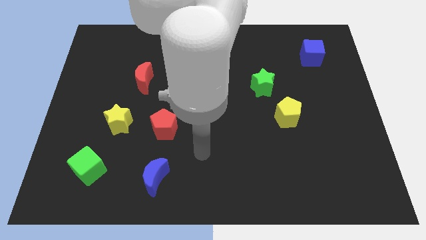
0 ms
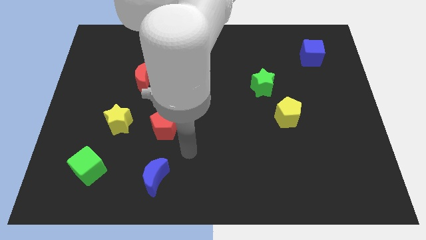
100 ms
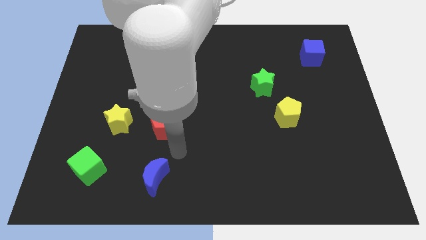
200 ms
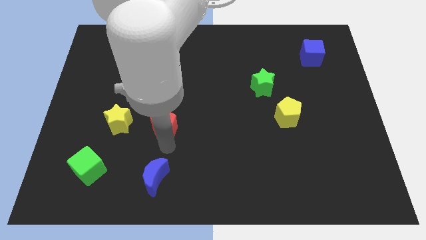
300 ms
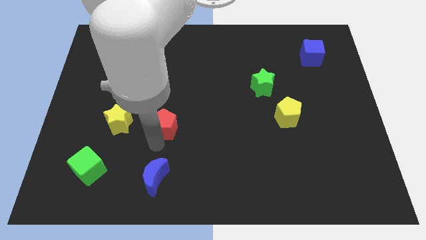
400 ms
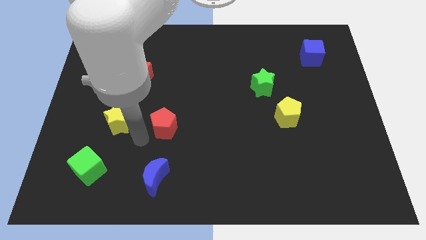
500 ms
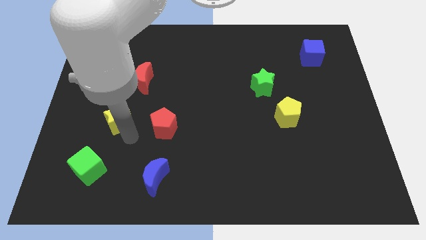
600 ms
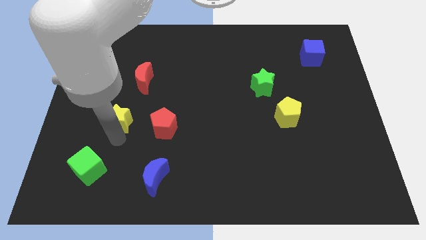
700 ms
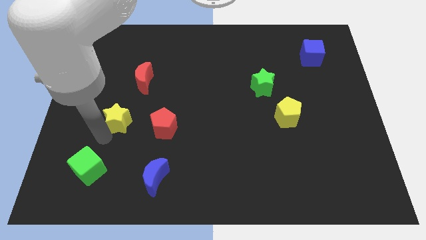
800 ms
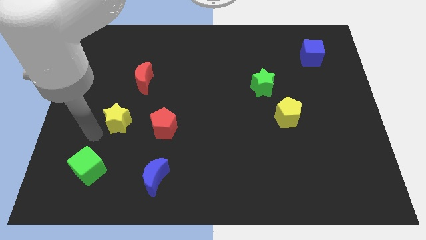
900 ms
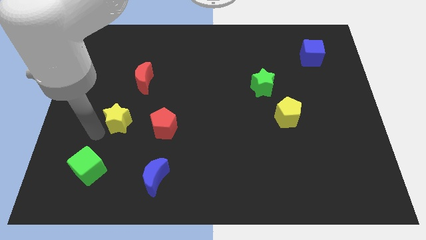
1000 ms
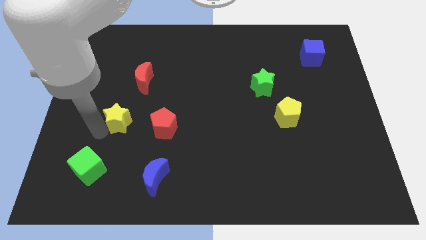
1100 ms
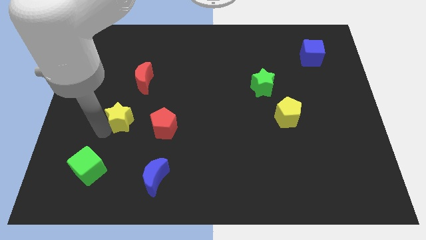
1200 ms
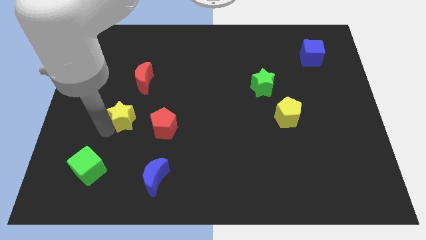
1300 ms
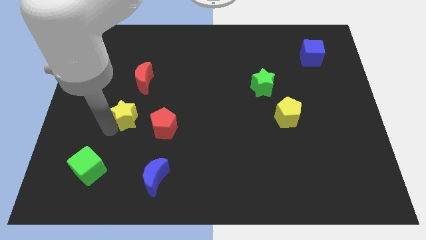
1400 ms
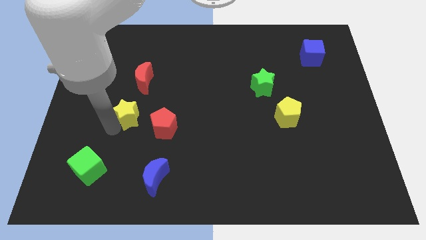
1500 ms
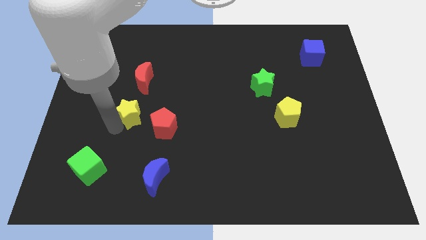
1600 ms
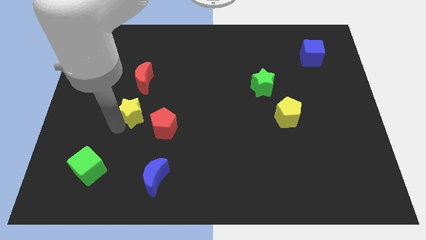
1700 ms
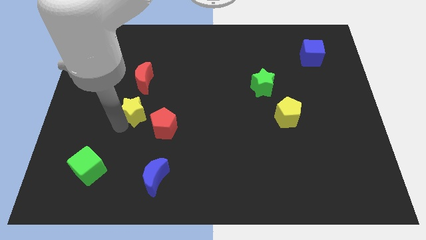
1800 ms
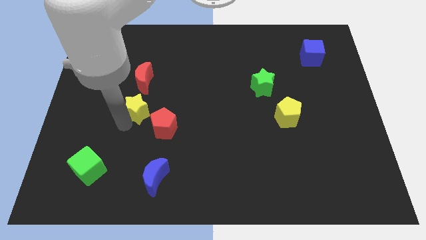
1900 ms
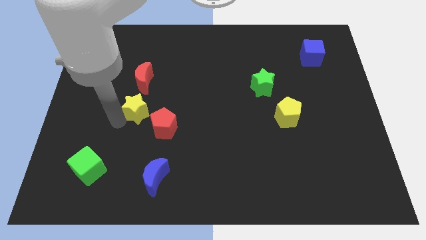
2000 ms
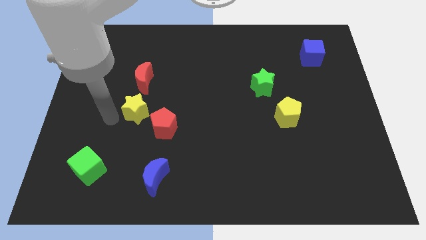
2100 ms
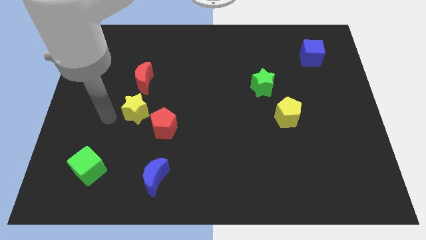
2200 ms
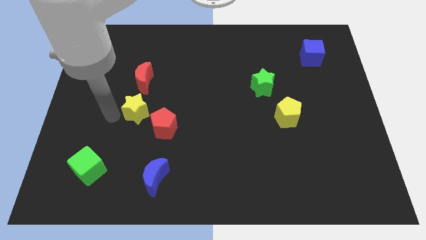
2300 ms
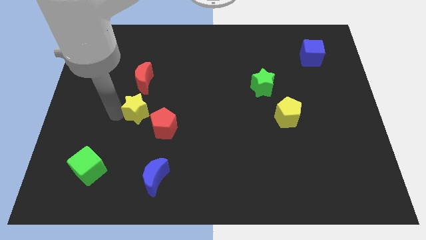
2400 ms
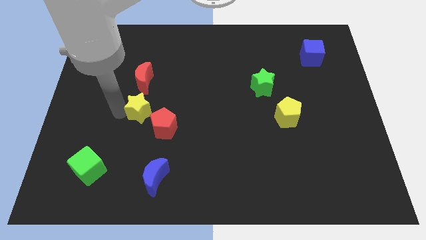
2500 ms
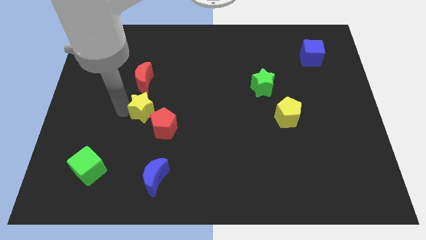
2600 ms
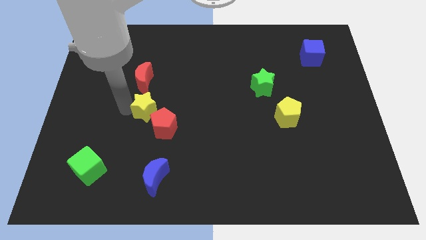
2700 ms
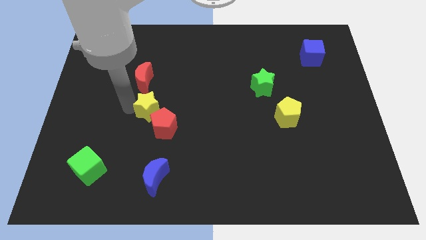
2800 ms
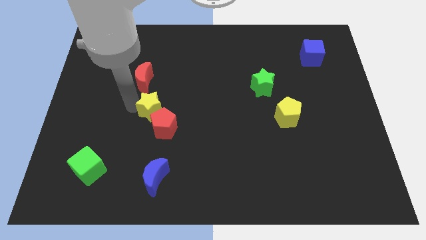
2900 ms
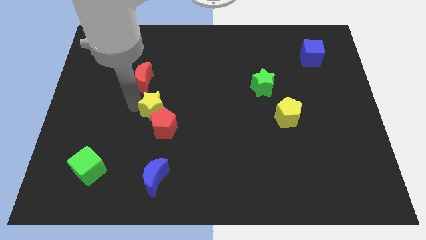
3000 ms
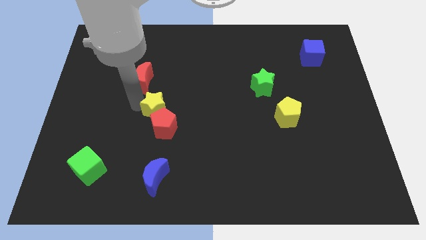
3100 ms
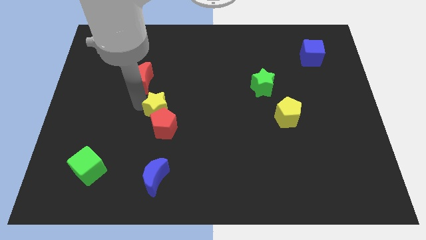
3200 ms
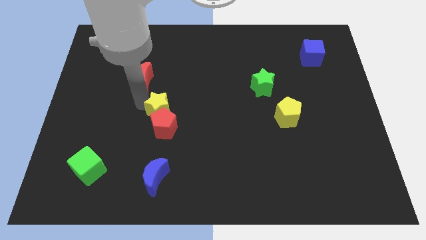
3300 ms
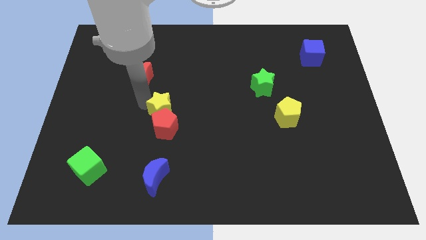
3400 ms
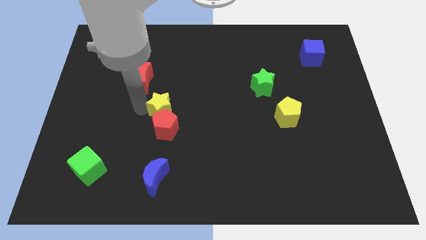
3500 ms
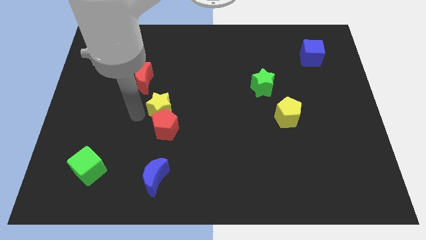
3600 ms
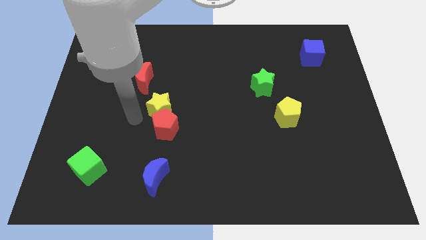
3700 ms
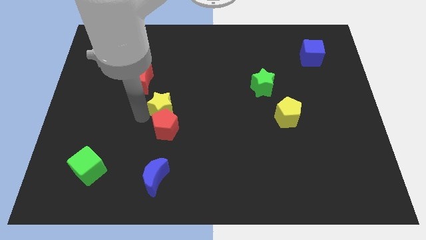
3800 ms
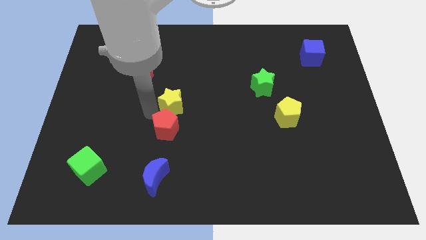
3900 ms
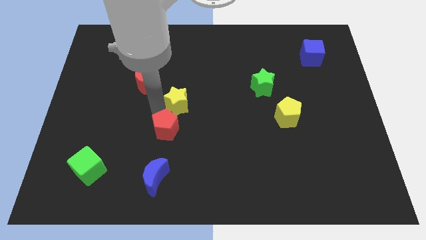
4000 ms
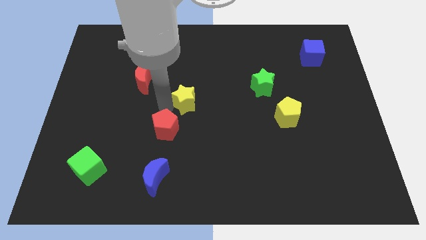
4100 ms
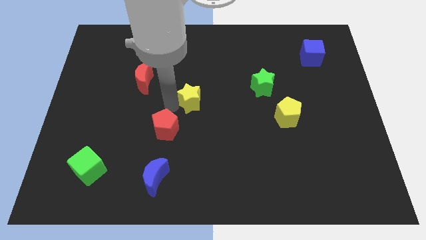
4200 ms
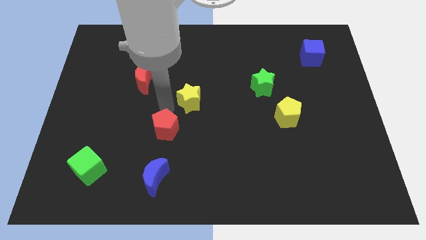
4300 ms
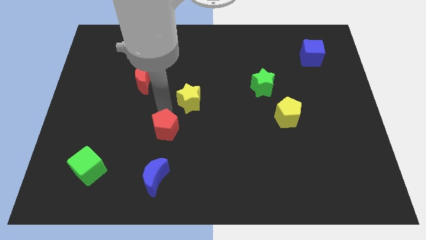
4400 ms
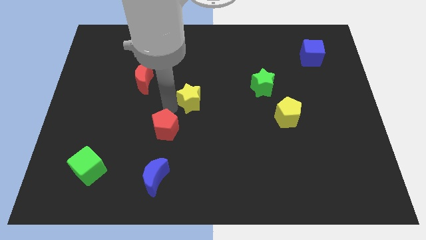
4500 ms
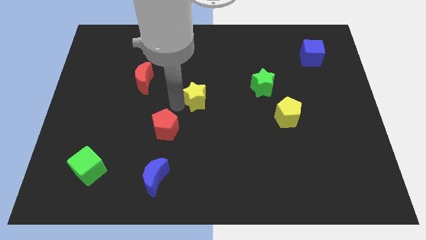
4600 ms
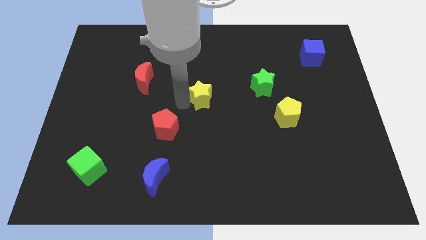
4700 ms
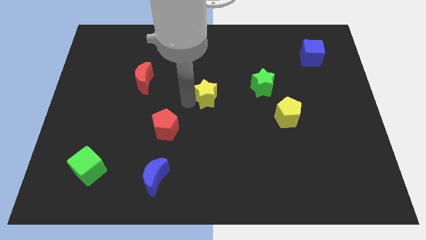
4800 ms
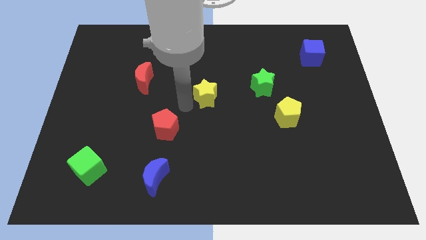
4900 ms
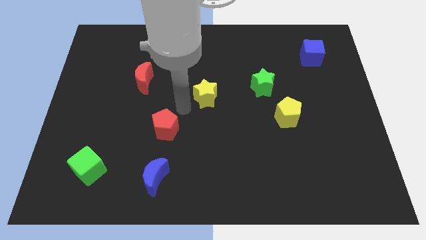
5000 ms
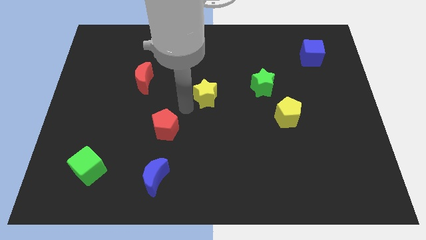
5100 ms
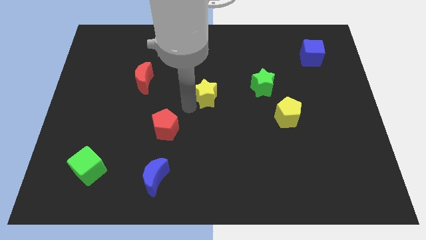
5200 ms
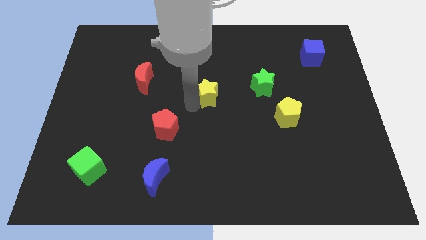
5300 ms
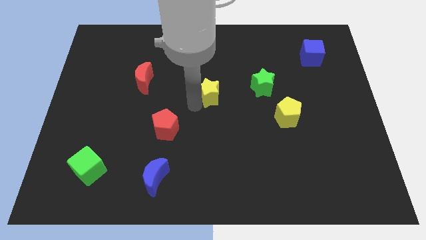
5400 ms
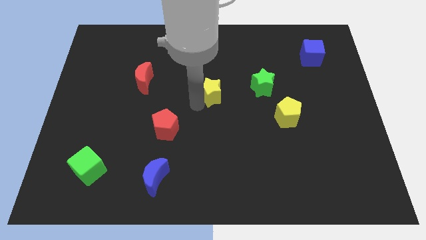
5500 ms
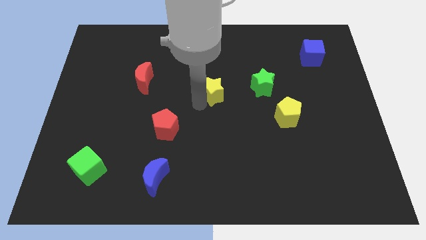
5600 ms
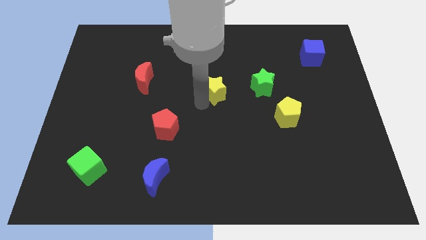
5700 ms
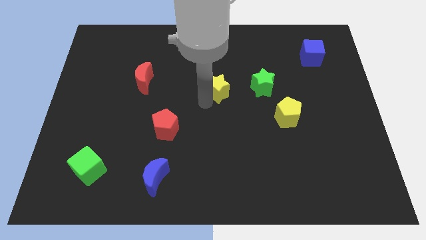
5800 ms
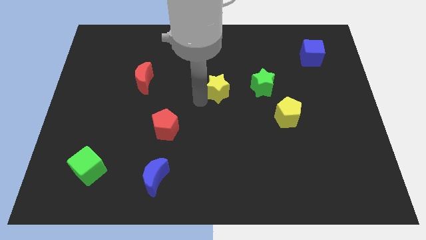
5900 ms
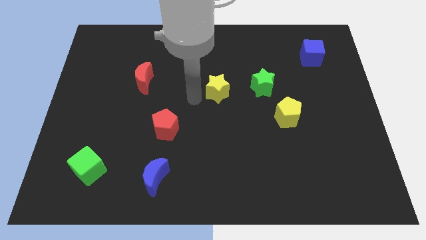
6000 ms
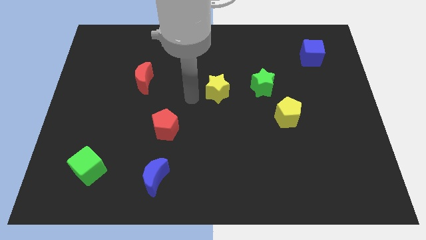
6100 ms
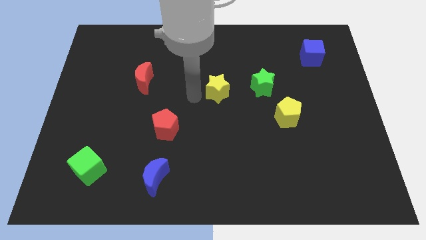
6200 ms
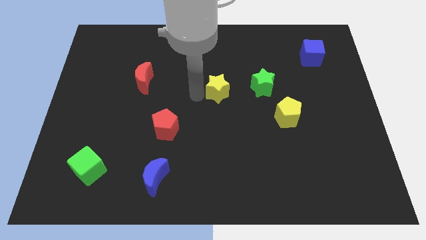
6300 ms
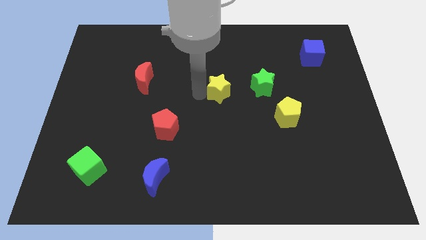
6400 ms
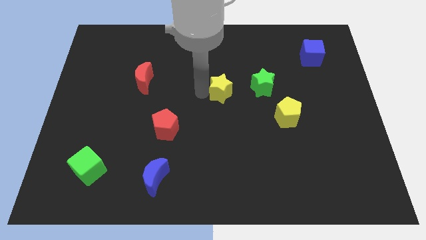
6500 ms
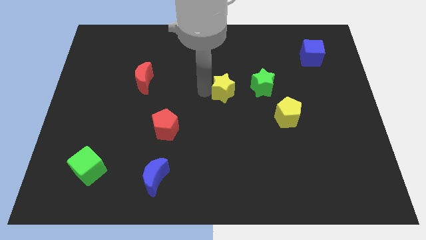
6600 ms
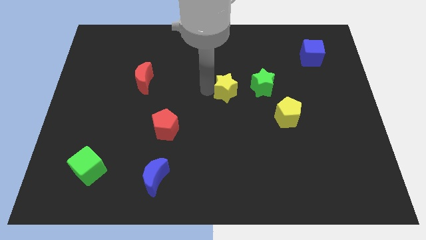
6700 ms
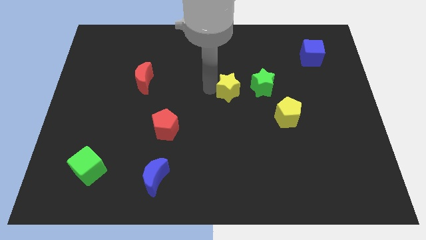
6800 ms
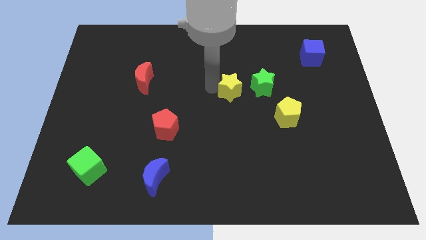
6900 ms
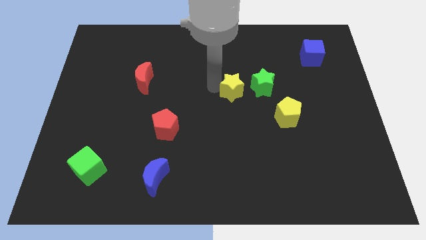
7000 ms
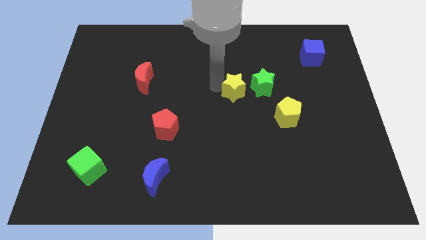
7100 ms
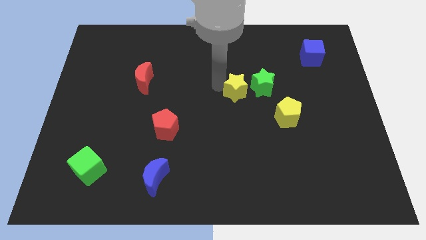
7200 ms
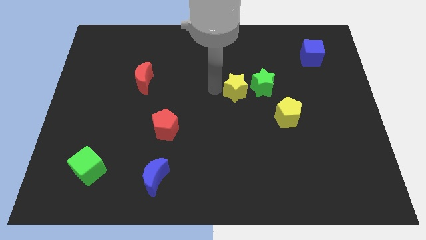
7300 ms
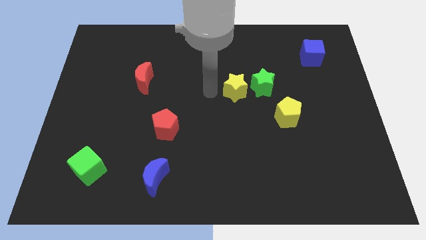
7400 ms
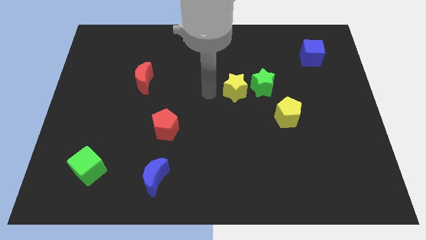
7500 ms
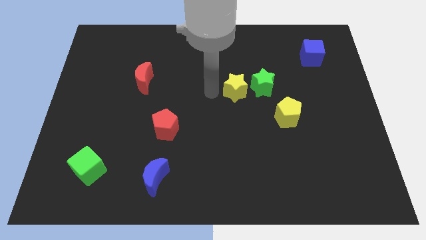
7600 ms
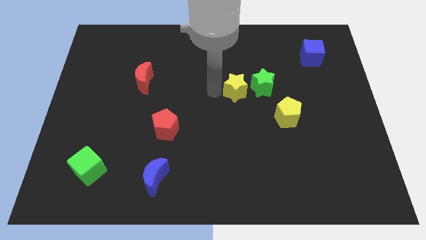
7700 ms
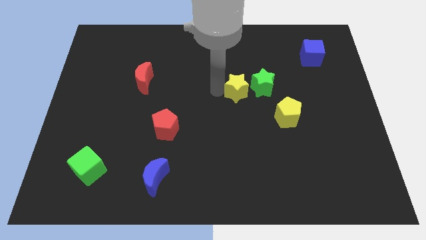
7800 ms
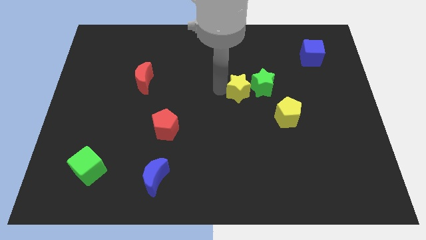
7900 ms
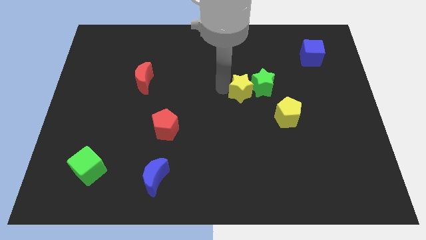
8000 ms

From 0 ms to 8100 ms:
slide the yellow star to the green star
